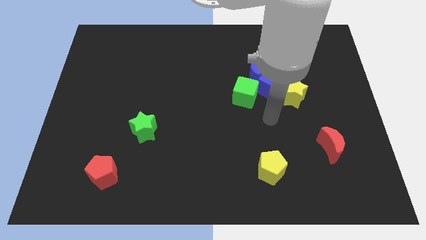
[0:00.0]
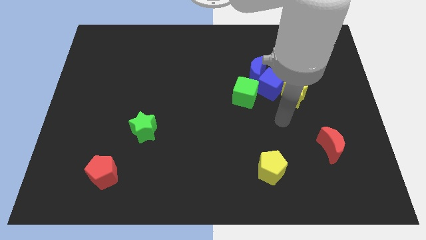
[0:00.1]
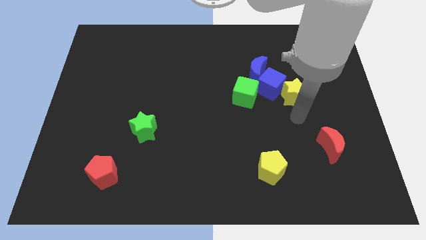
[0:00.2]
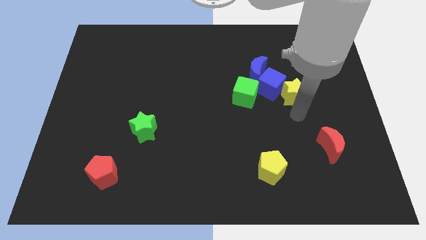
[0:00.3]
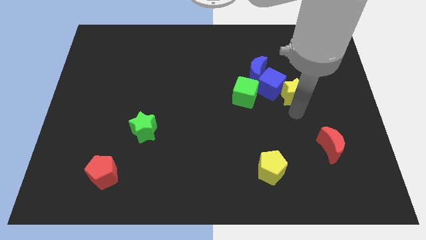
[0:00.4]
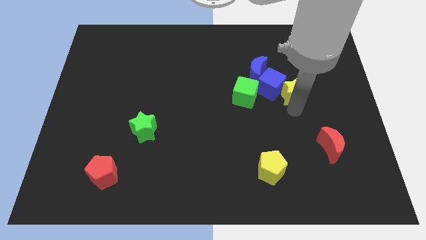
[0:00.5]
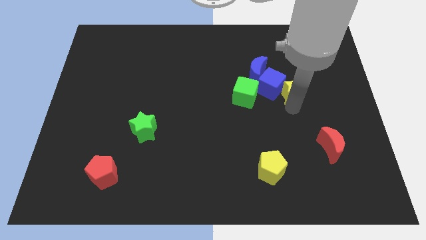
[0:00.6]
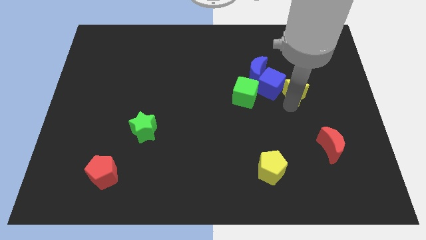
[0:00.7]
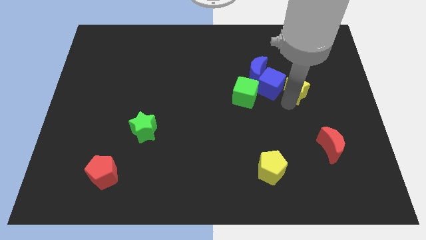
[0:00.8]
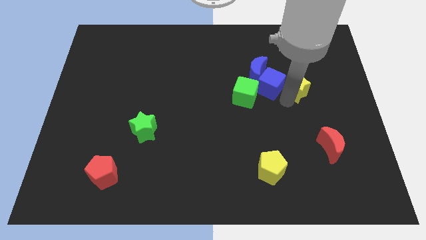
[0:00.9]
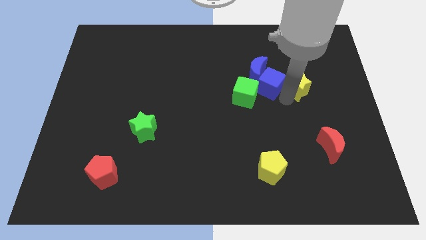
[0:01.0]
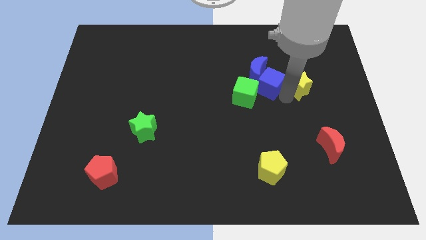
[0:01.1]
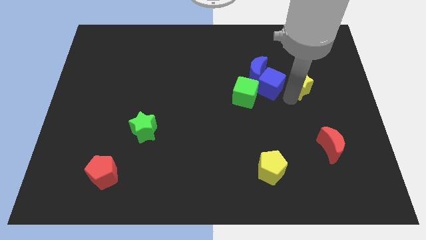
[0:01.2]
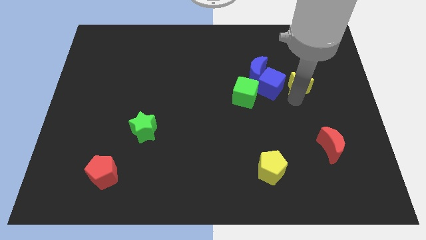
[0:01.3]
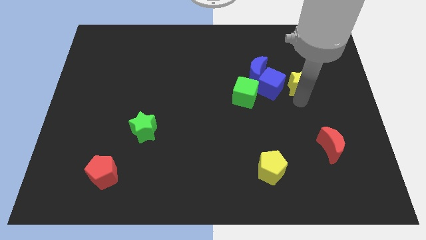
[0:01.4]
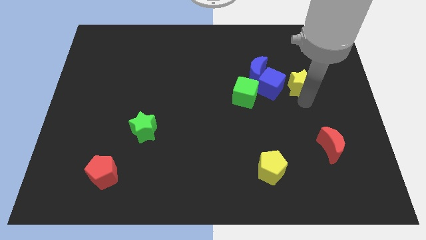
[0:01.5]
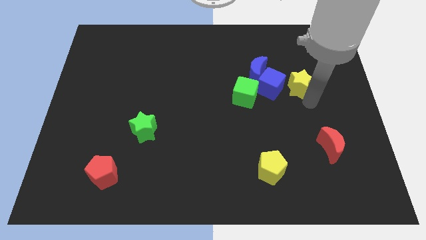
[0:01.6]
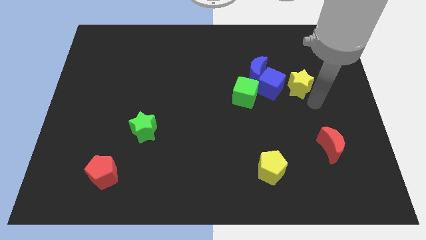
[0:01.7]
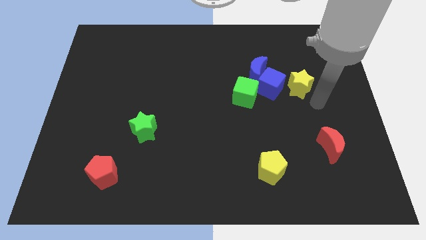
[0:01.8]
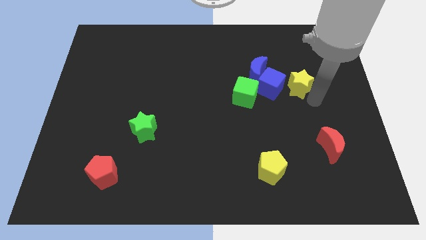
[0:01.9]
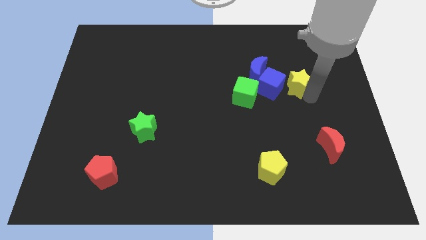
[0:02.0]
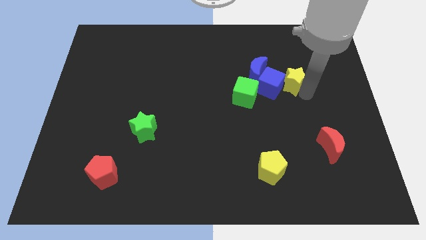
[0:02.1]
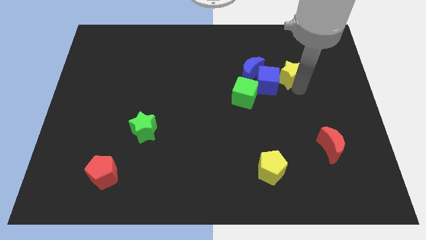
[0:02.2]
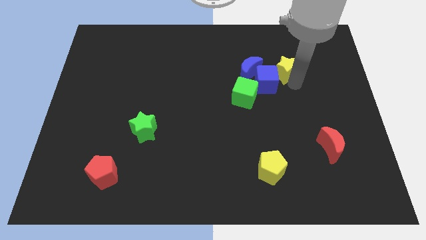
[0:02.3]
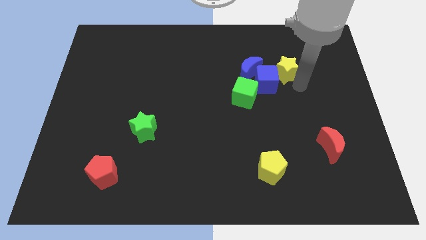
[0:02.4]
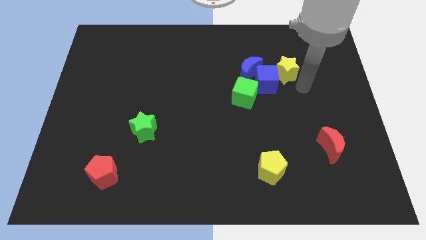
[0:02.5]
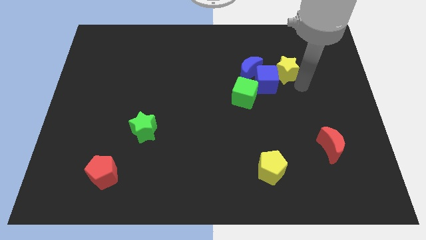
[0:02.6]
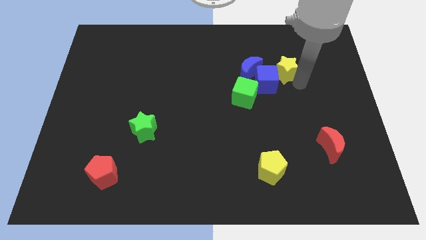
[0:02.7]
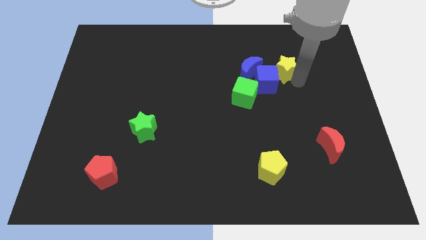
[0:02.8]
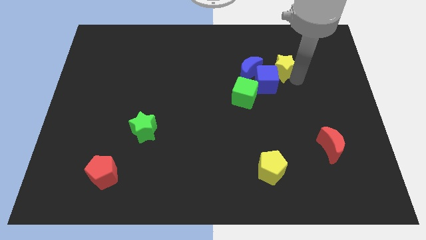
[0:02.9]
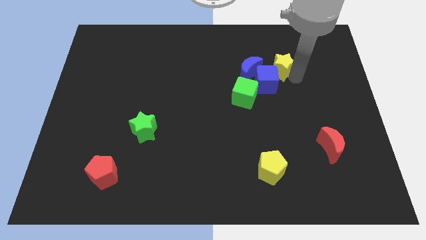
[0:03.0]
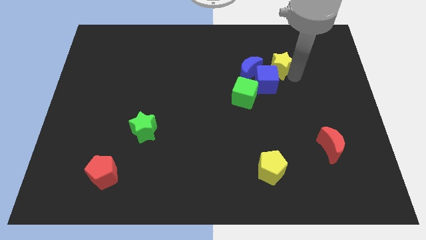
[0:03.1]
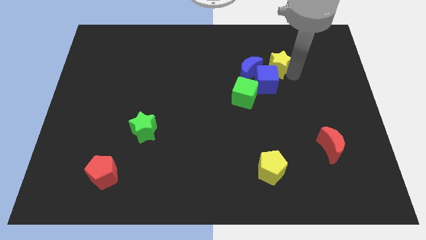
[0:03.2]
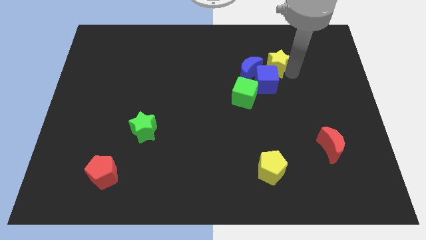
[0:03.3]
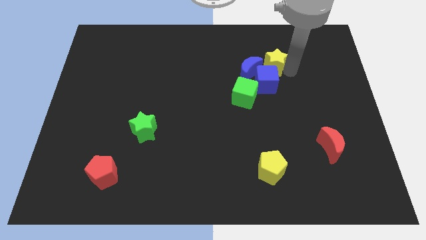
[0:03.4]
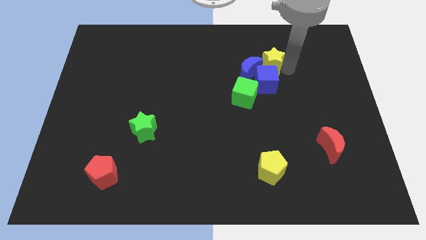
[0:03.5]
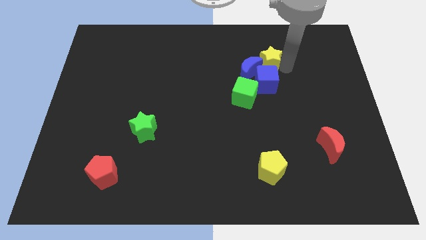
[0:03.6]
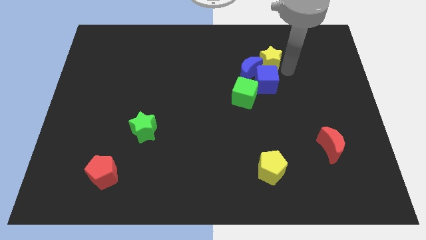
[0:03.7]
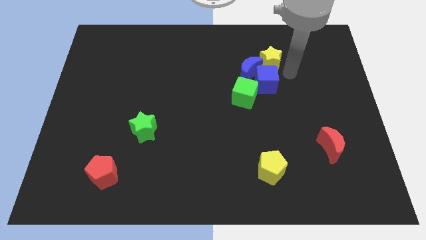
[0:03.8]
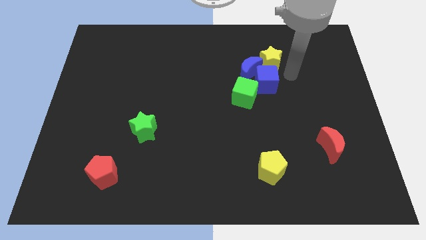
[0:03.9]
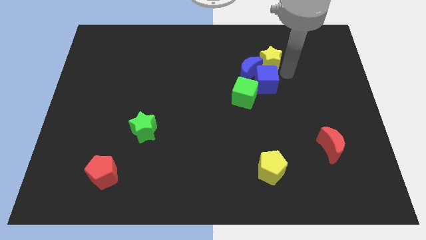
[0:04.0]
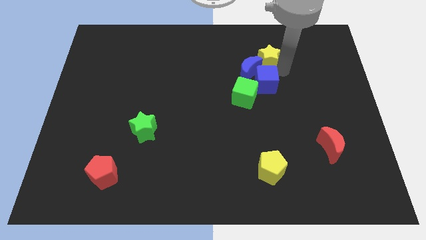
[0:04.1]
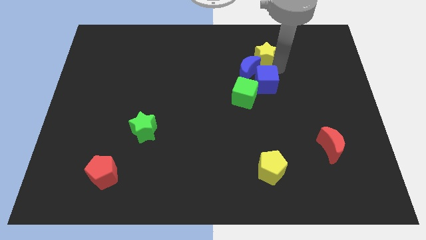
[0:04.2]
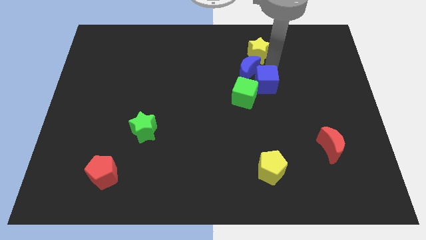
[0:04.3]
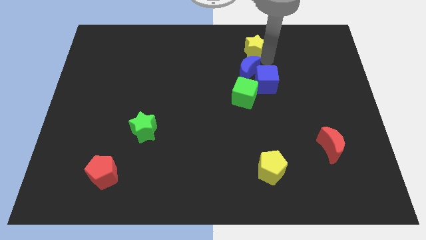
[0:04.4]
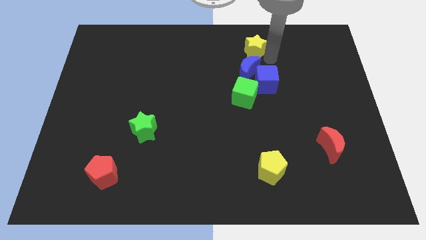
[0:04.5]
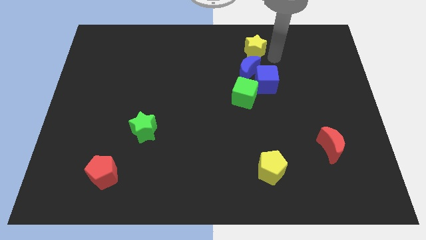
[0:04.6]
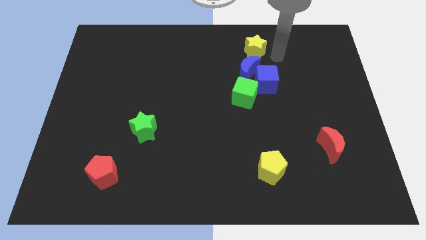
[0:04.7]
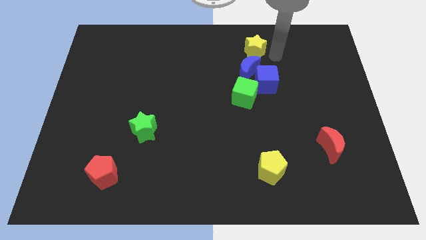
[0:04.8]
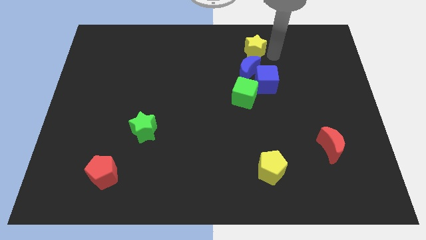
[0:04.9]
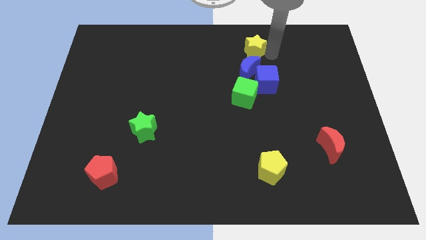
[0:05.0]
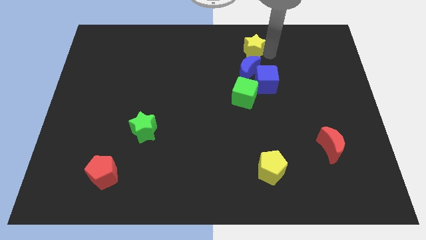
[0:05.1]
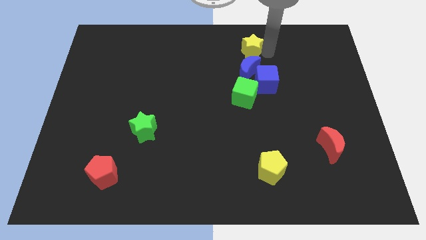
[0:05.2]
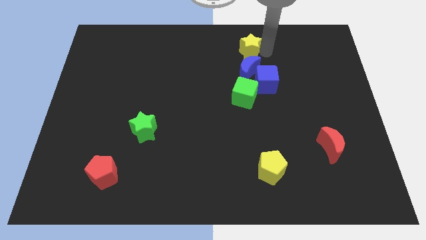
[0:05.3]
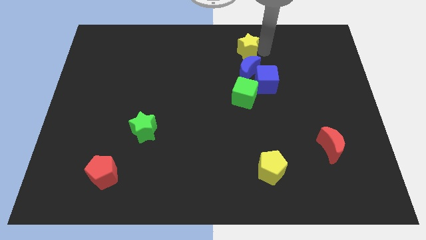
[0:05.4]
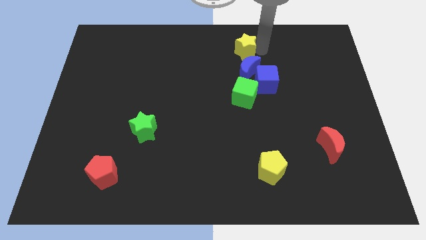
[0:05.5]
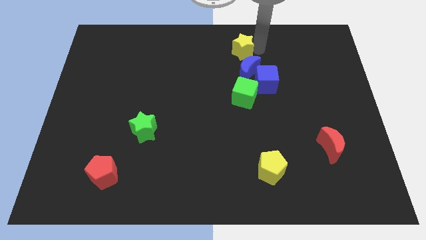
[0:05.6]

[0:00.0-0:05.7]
put the yellow star to the top

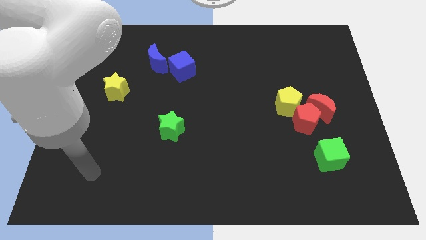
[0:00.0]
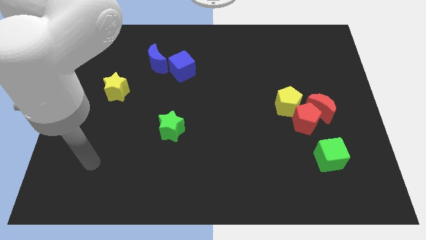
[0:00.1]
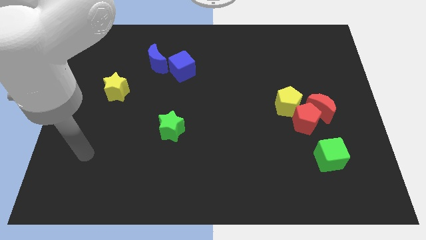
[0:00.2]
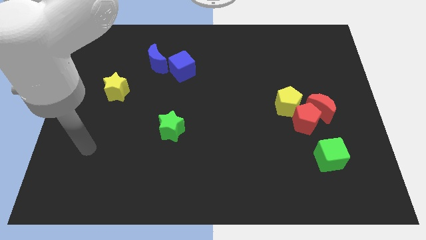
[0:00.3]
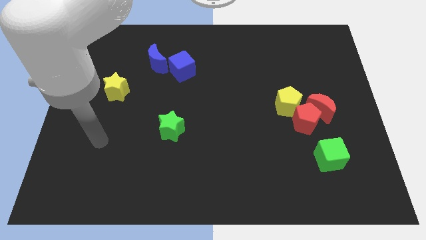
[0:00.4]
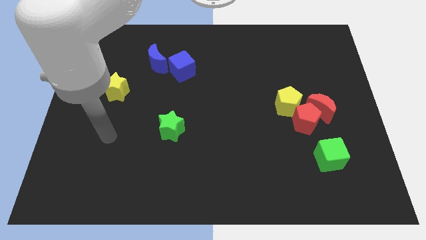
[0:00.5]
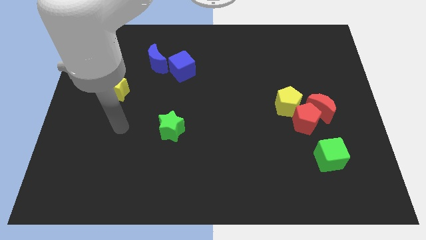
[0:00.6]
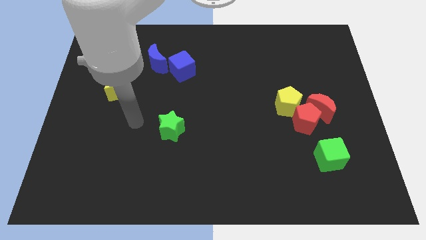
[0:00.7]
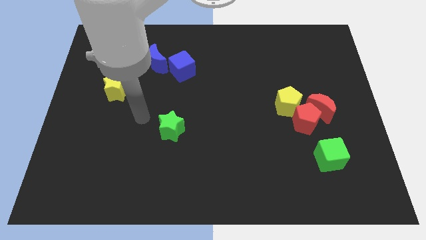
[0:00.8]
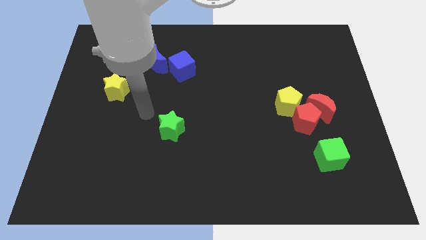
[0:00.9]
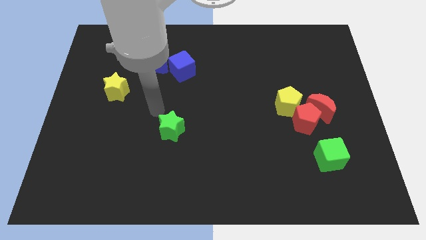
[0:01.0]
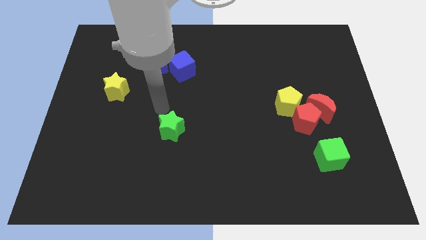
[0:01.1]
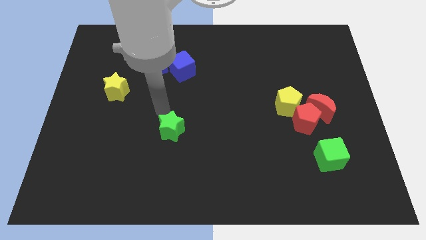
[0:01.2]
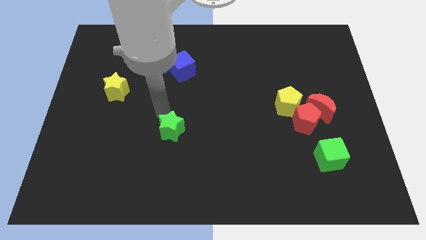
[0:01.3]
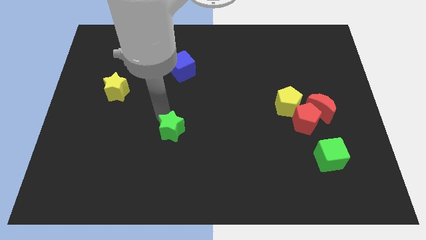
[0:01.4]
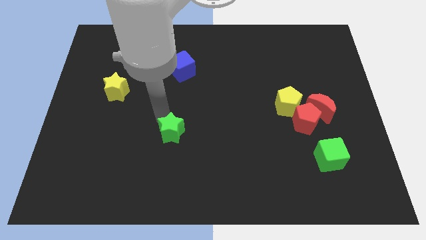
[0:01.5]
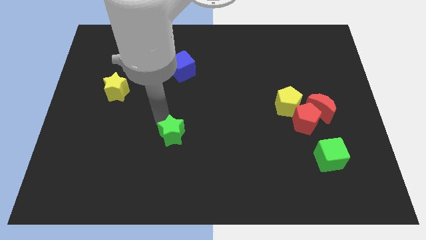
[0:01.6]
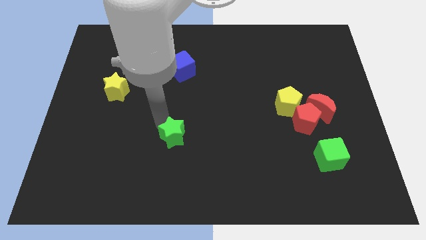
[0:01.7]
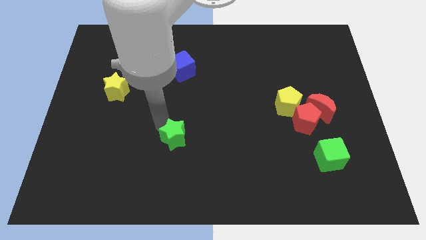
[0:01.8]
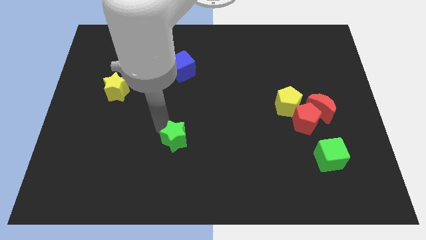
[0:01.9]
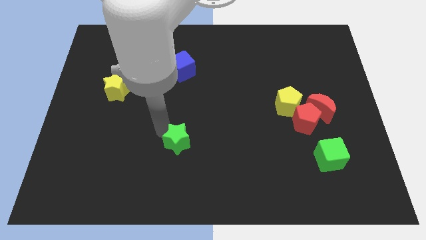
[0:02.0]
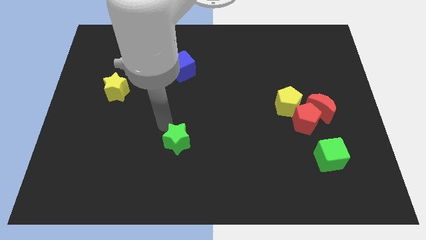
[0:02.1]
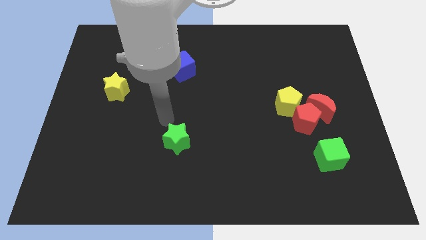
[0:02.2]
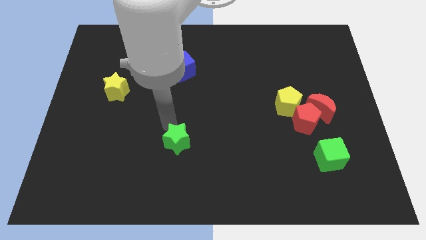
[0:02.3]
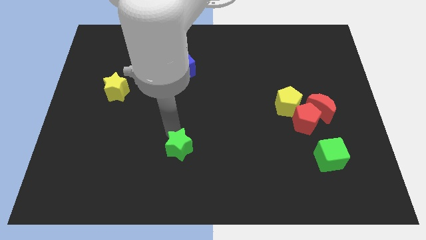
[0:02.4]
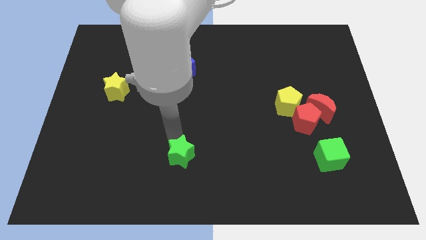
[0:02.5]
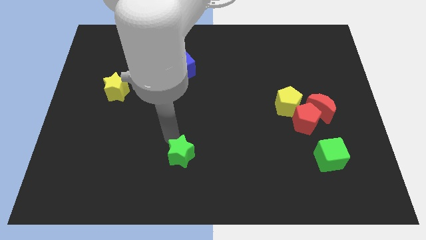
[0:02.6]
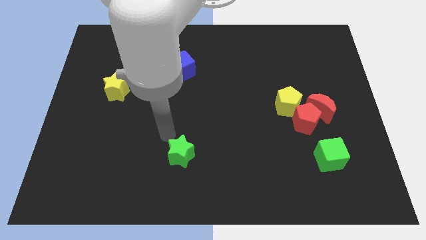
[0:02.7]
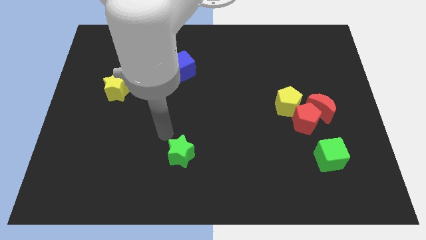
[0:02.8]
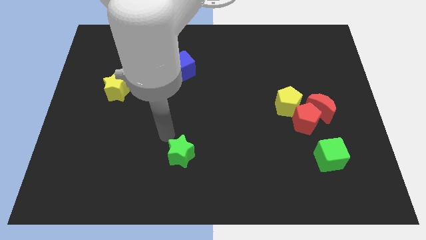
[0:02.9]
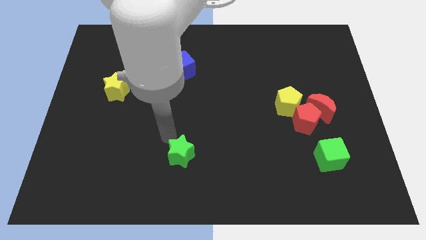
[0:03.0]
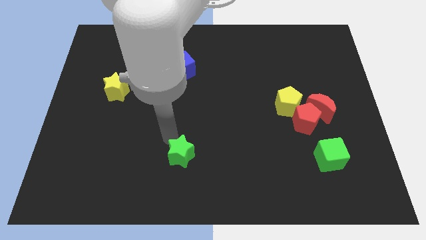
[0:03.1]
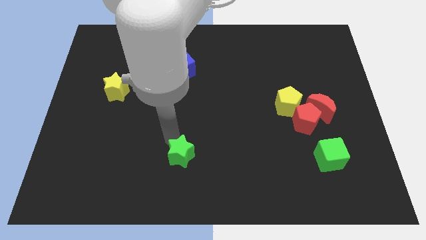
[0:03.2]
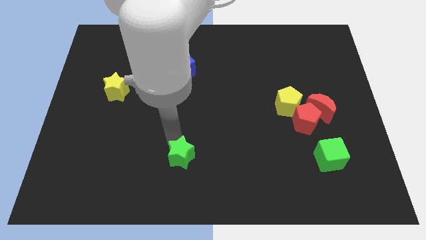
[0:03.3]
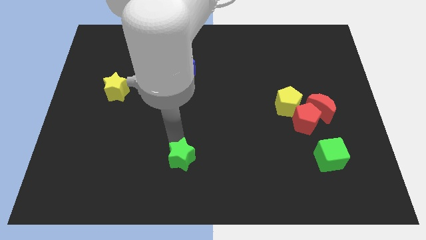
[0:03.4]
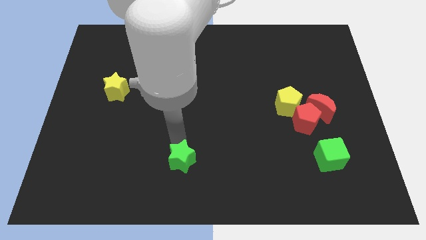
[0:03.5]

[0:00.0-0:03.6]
push the green star to the bottom
